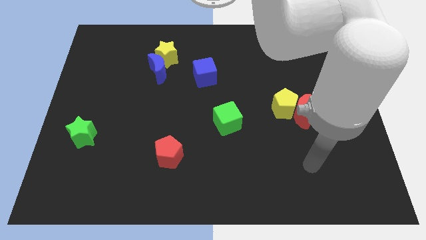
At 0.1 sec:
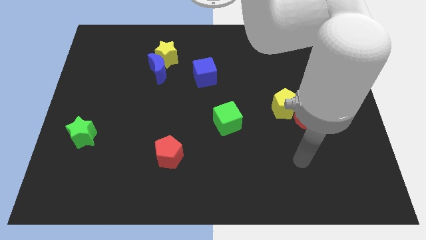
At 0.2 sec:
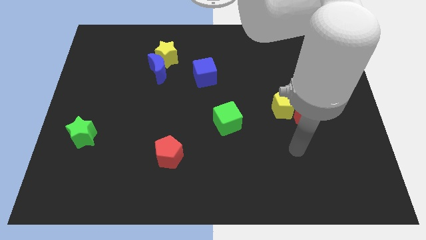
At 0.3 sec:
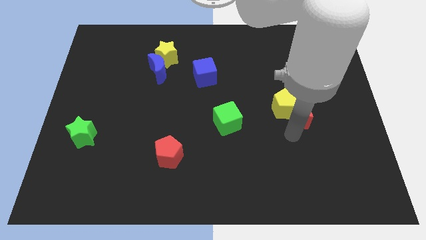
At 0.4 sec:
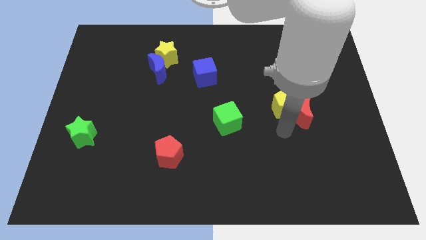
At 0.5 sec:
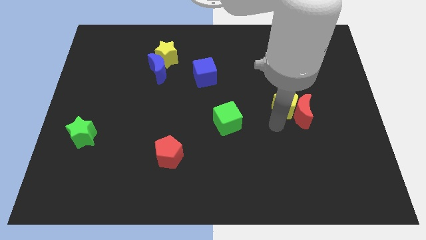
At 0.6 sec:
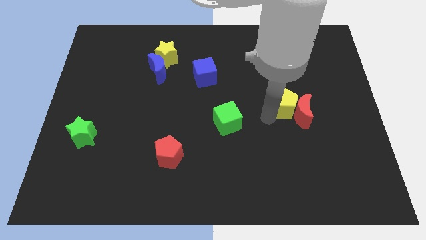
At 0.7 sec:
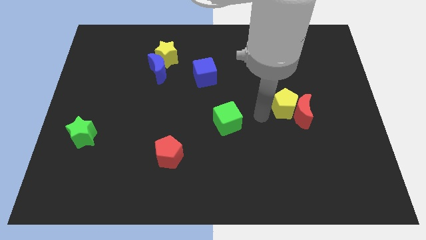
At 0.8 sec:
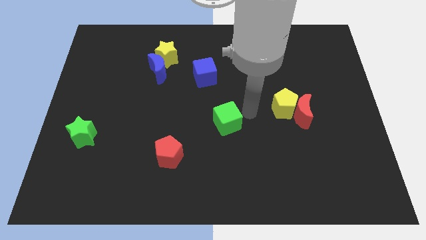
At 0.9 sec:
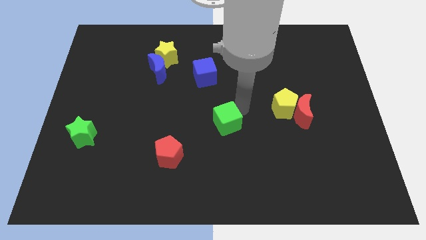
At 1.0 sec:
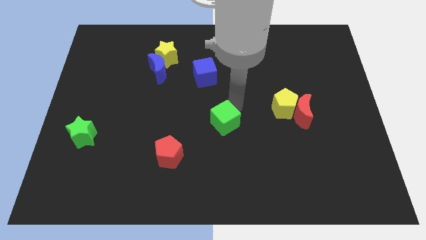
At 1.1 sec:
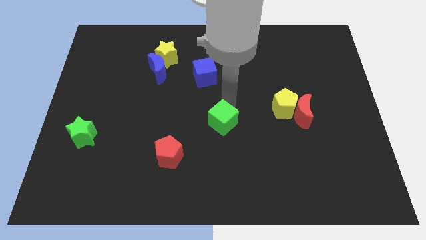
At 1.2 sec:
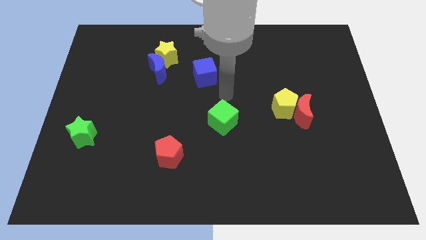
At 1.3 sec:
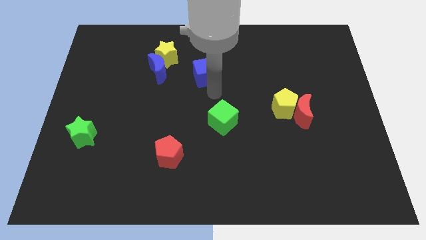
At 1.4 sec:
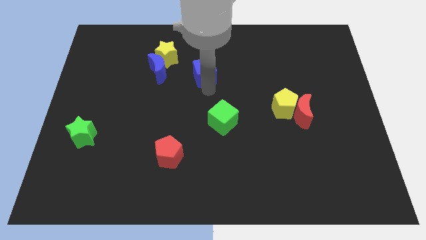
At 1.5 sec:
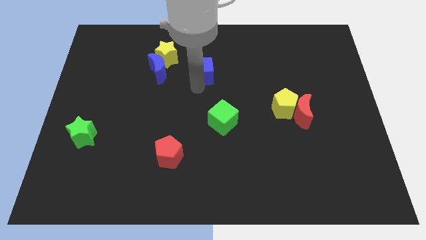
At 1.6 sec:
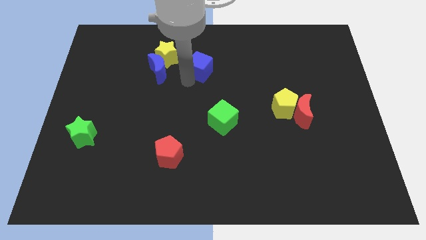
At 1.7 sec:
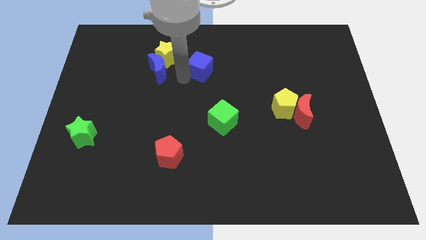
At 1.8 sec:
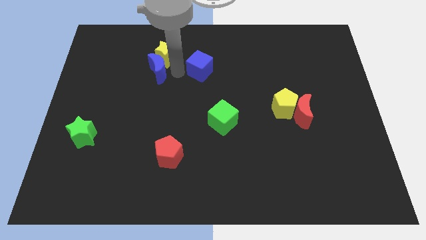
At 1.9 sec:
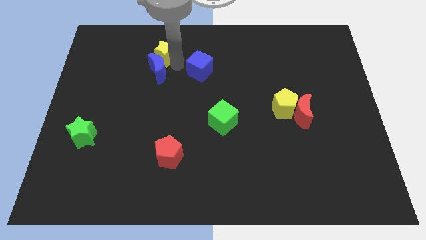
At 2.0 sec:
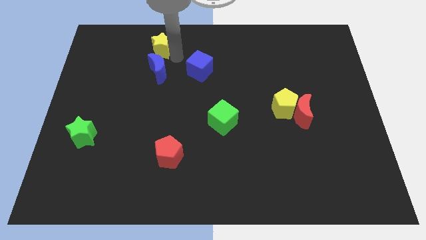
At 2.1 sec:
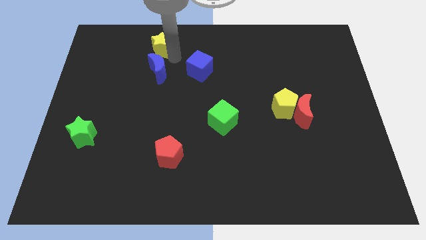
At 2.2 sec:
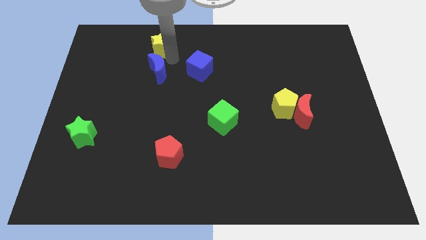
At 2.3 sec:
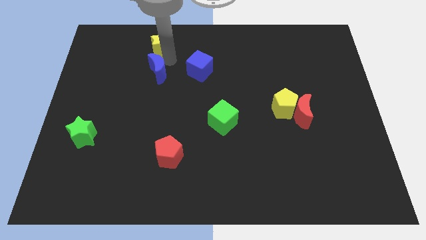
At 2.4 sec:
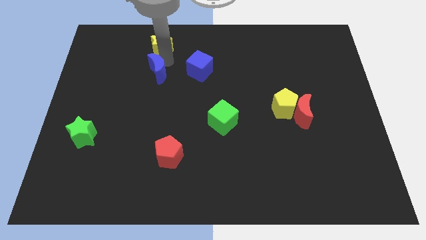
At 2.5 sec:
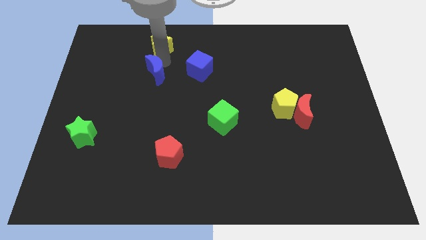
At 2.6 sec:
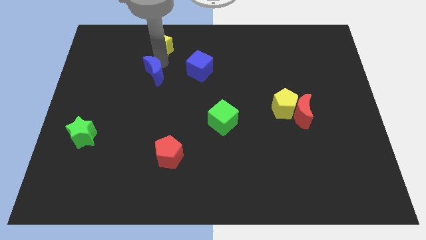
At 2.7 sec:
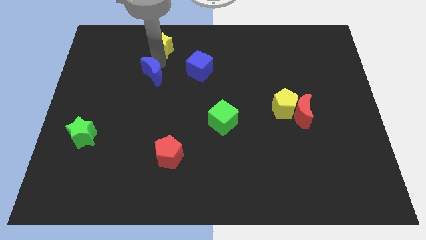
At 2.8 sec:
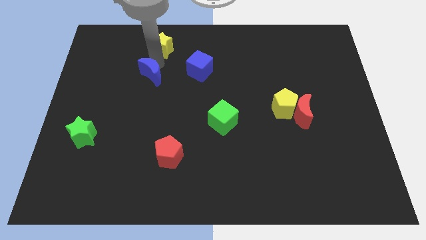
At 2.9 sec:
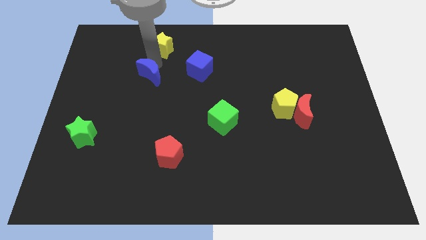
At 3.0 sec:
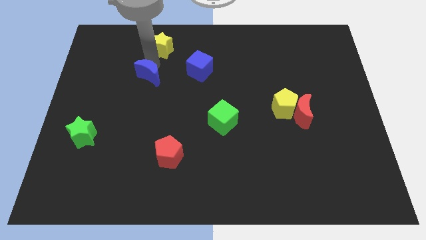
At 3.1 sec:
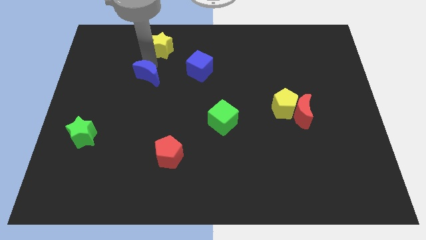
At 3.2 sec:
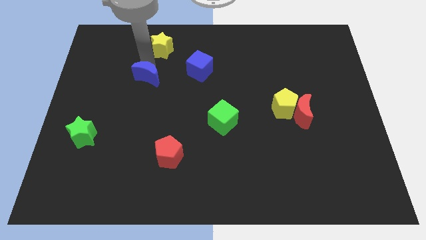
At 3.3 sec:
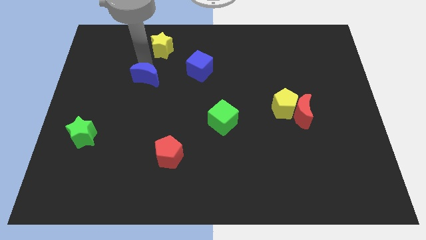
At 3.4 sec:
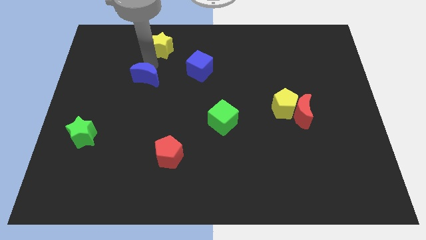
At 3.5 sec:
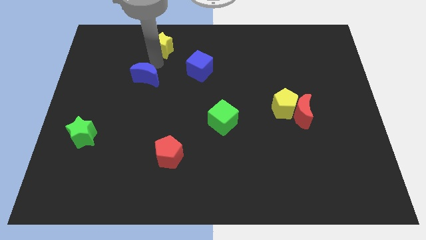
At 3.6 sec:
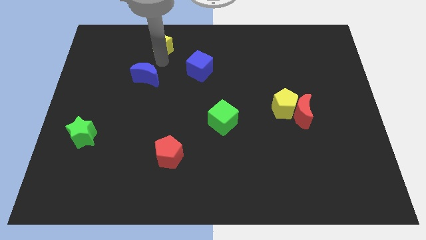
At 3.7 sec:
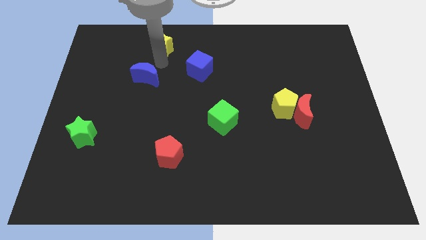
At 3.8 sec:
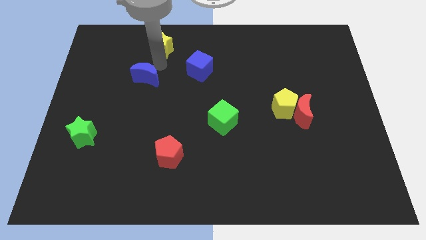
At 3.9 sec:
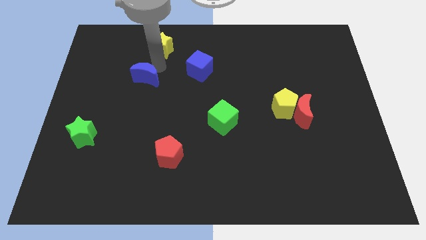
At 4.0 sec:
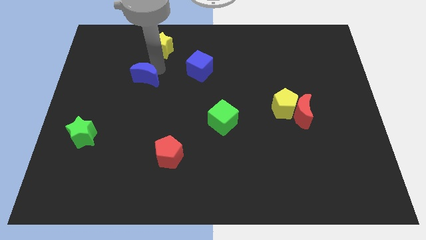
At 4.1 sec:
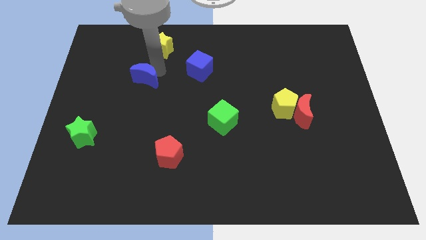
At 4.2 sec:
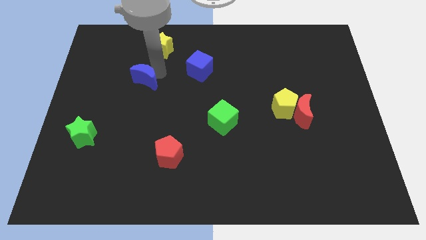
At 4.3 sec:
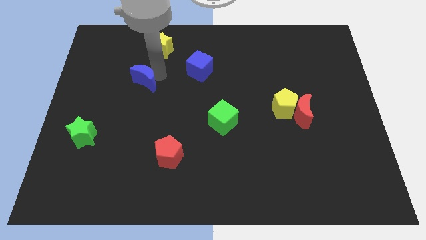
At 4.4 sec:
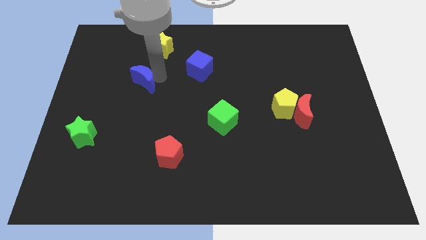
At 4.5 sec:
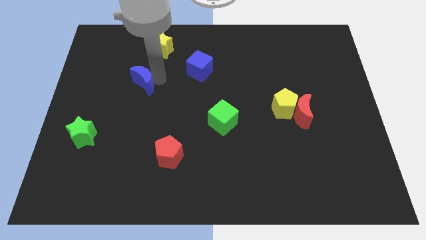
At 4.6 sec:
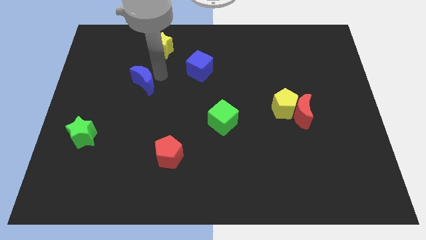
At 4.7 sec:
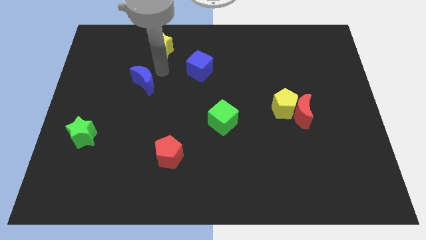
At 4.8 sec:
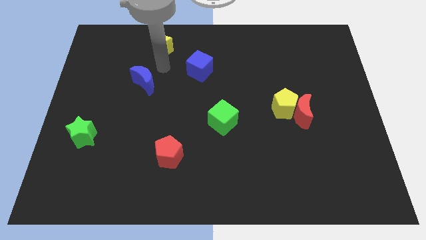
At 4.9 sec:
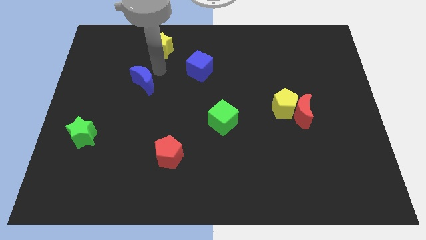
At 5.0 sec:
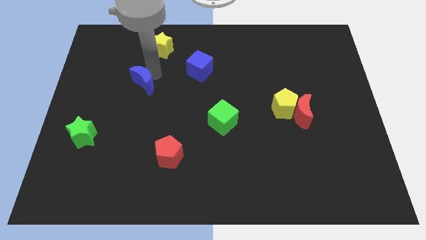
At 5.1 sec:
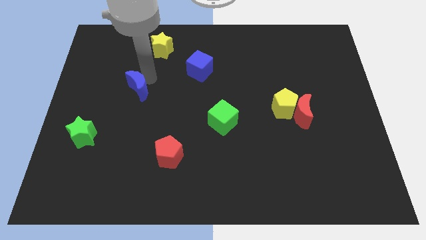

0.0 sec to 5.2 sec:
slide the blue moon a bit down and left diagonally

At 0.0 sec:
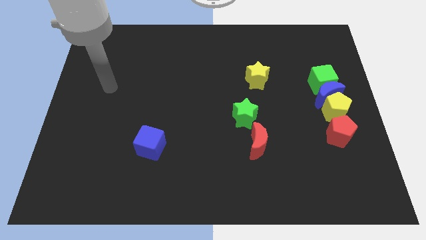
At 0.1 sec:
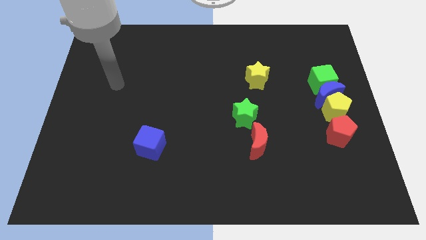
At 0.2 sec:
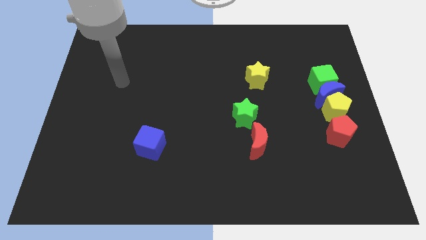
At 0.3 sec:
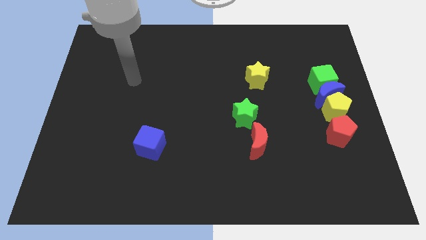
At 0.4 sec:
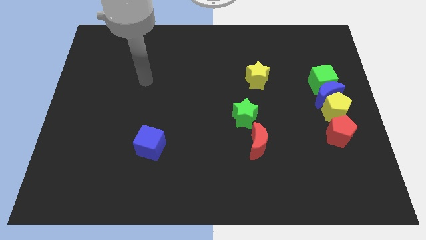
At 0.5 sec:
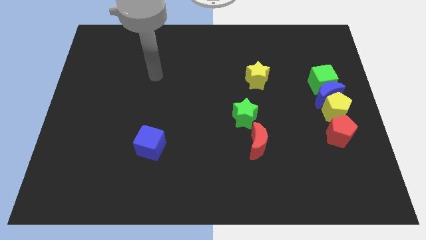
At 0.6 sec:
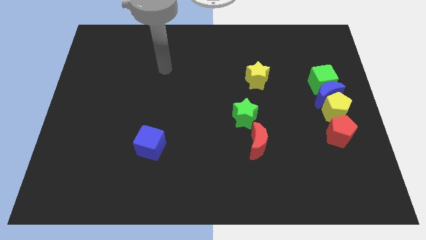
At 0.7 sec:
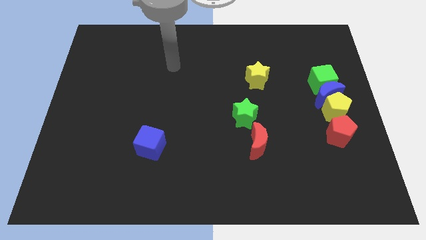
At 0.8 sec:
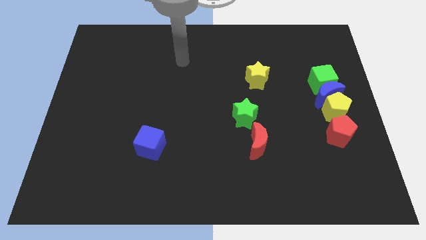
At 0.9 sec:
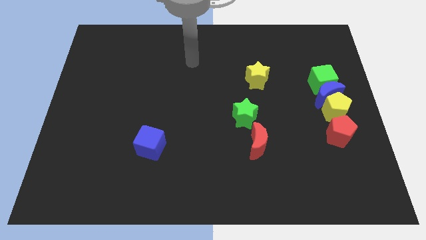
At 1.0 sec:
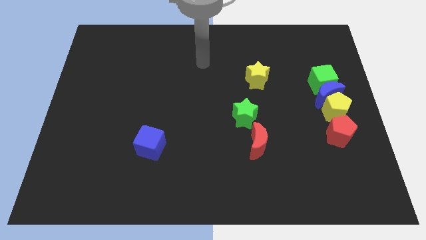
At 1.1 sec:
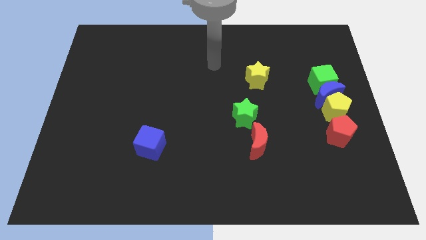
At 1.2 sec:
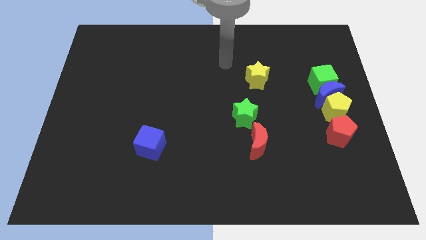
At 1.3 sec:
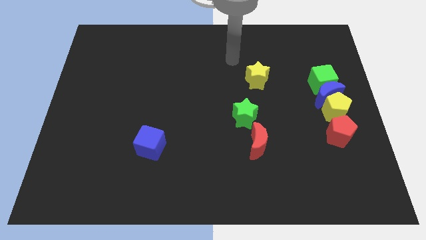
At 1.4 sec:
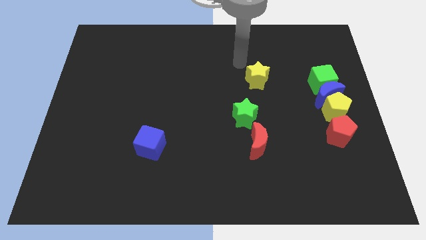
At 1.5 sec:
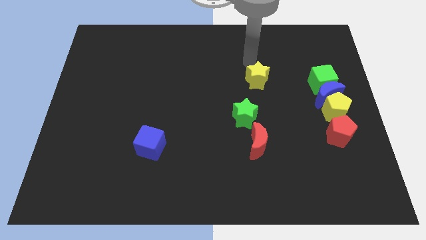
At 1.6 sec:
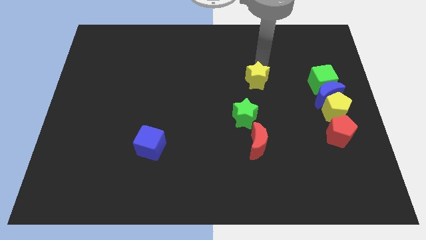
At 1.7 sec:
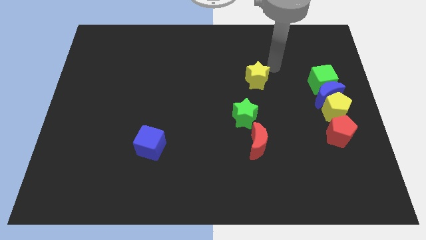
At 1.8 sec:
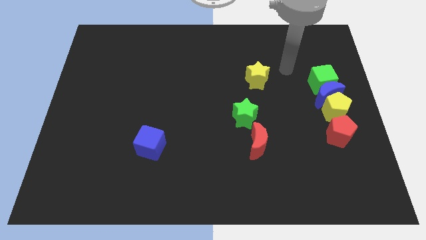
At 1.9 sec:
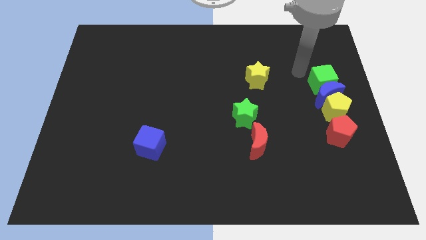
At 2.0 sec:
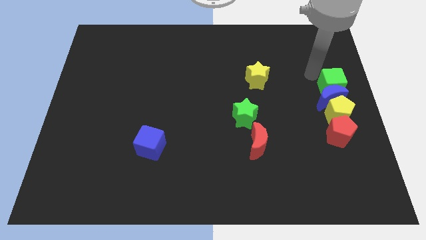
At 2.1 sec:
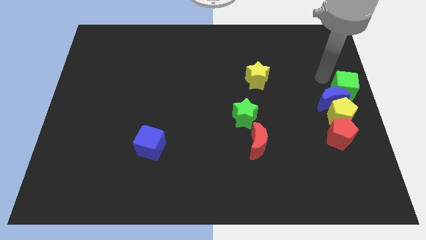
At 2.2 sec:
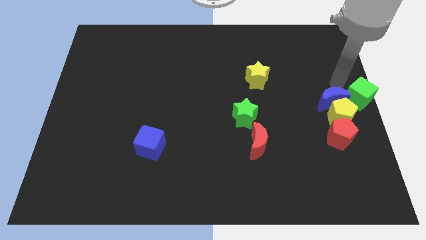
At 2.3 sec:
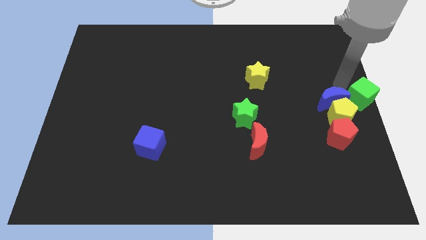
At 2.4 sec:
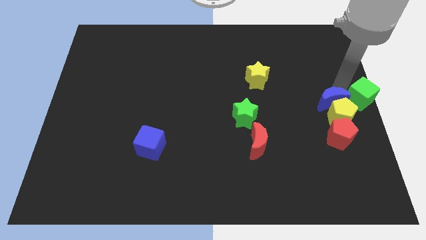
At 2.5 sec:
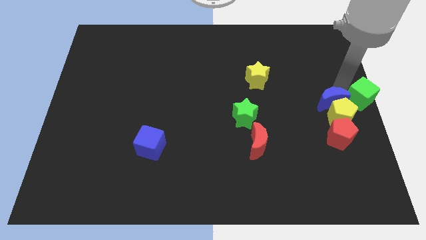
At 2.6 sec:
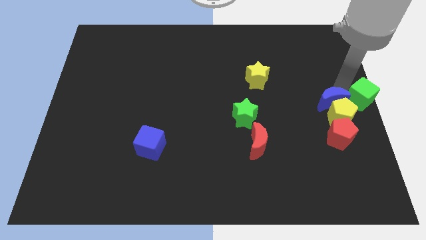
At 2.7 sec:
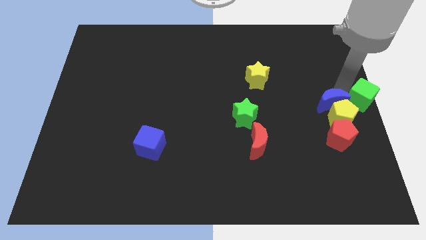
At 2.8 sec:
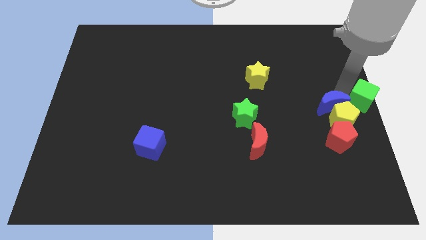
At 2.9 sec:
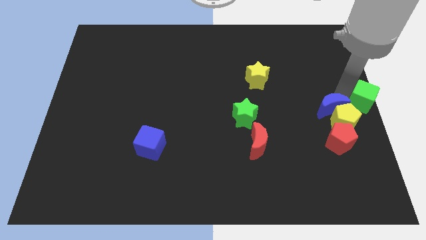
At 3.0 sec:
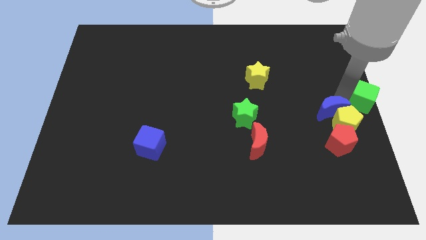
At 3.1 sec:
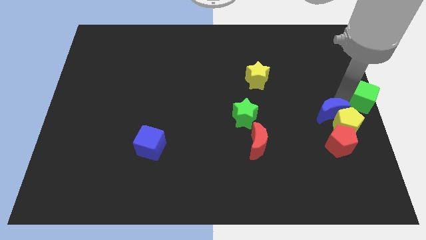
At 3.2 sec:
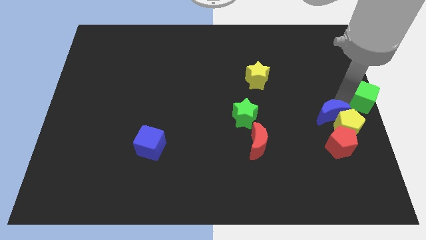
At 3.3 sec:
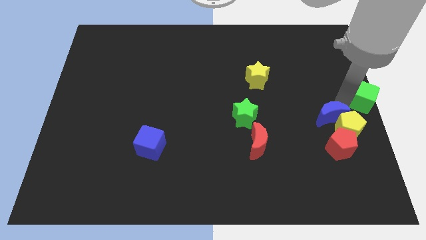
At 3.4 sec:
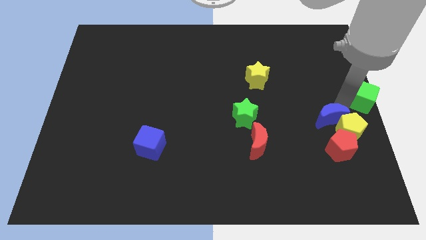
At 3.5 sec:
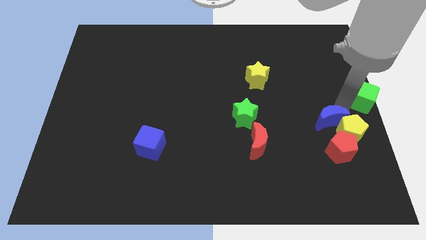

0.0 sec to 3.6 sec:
slide the blue moon downwards a little bit
